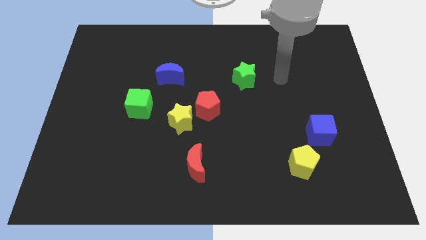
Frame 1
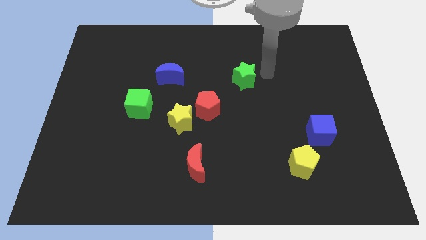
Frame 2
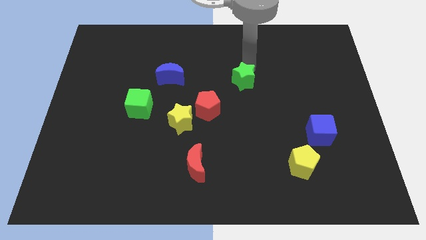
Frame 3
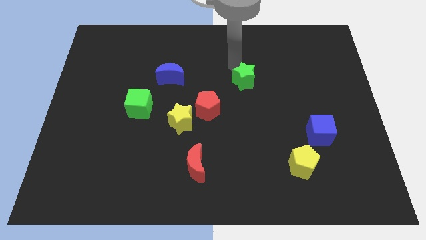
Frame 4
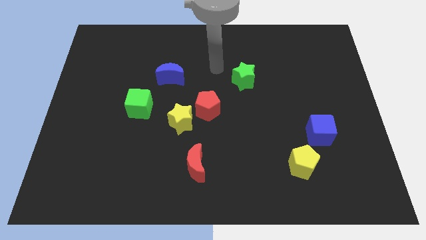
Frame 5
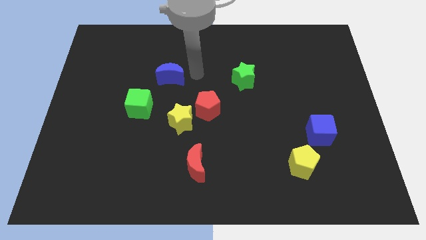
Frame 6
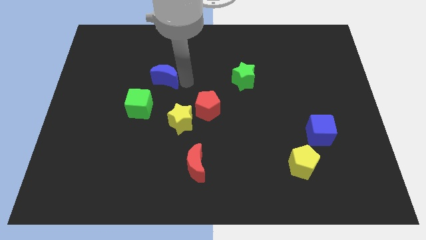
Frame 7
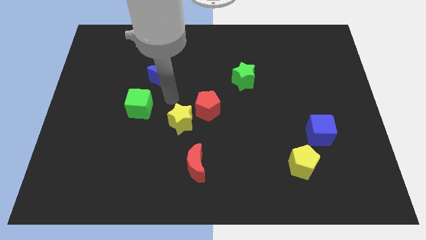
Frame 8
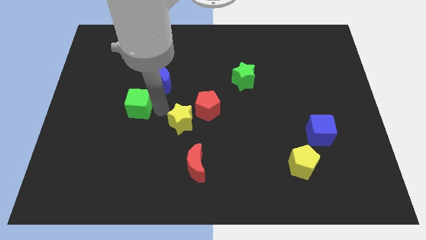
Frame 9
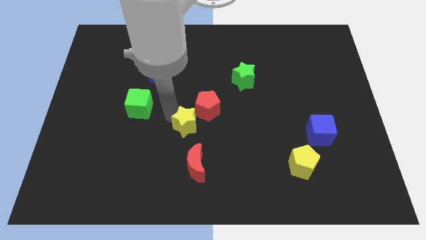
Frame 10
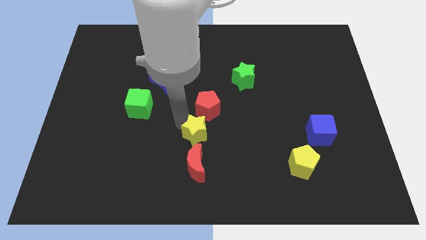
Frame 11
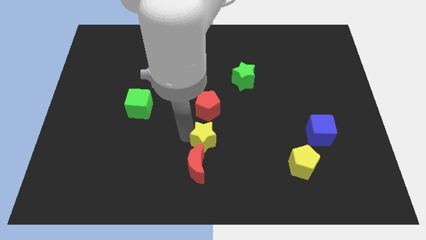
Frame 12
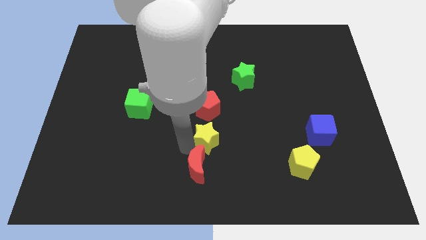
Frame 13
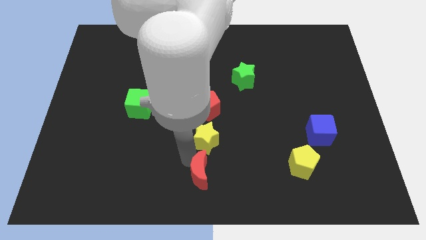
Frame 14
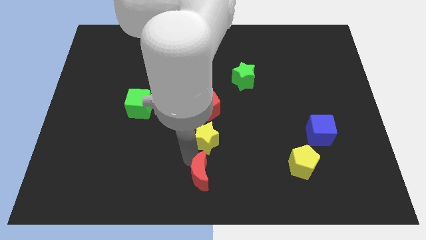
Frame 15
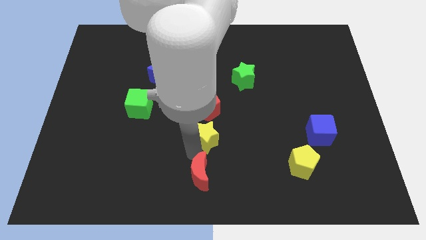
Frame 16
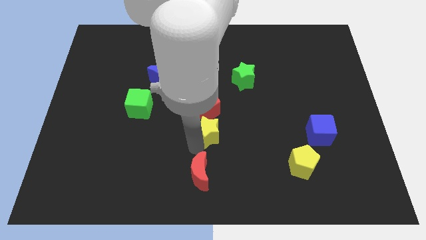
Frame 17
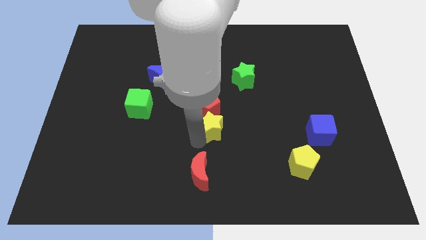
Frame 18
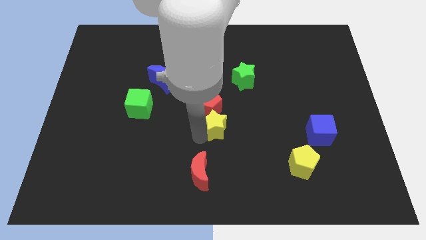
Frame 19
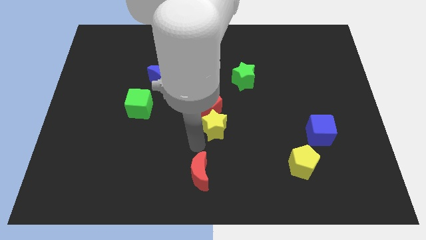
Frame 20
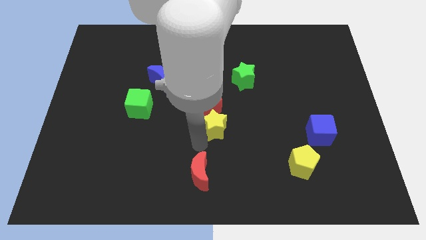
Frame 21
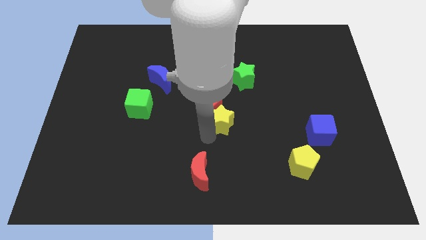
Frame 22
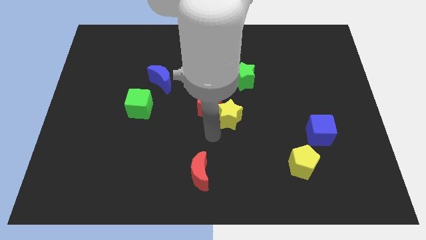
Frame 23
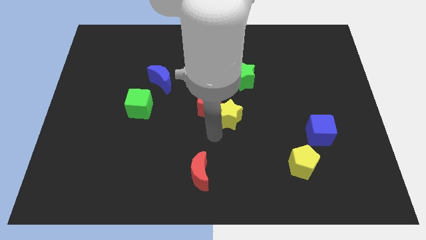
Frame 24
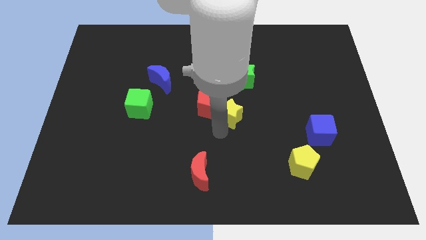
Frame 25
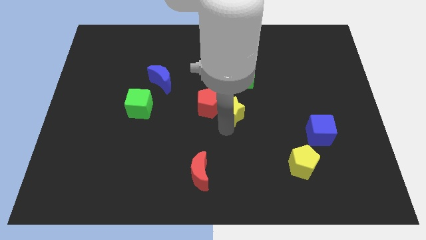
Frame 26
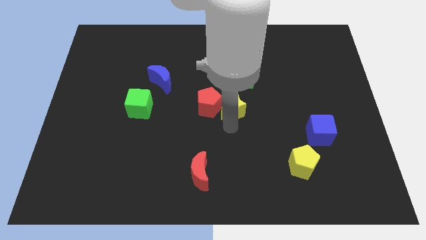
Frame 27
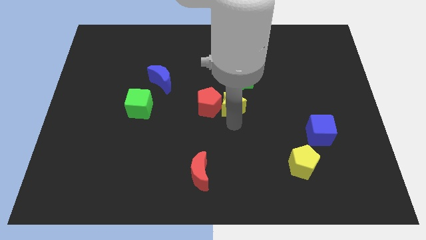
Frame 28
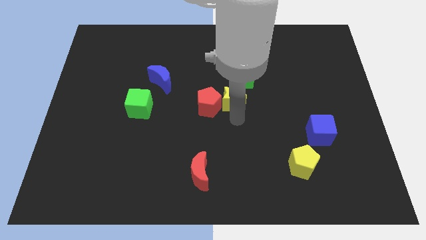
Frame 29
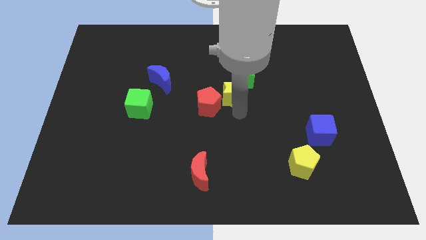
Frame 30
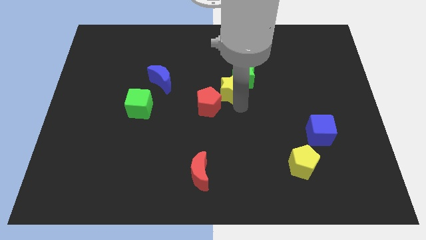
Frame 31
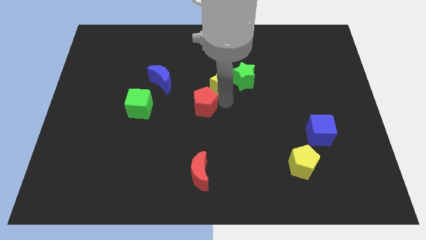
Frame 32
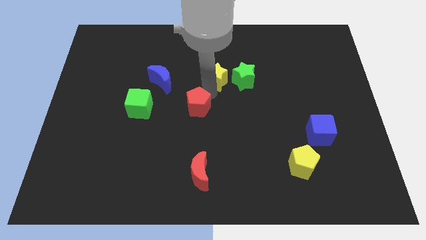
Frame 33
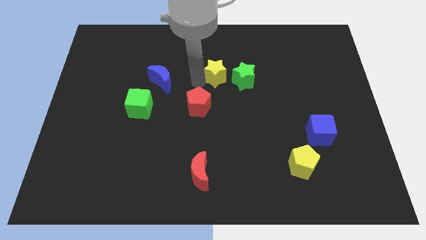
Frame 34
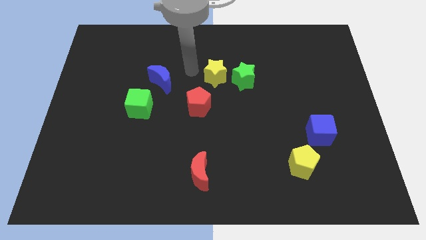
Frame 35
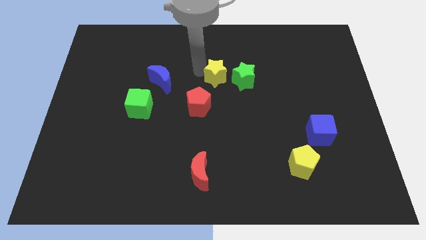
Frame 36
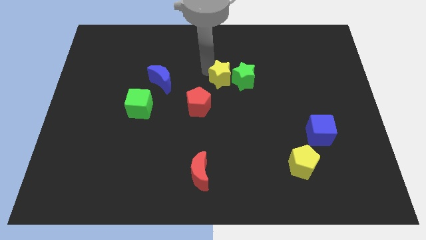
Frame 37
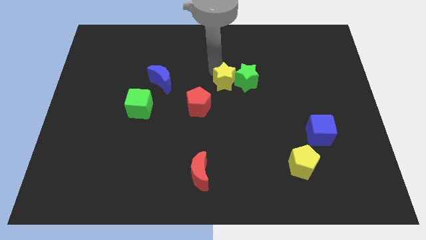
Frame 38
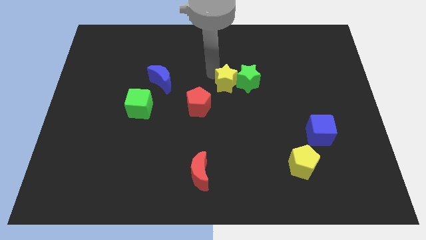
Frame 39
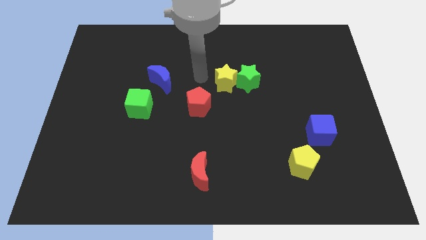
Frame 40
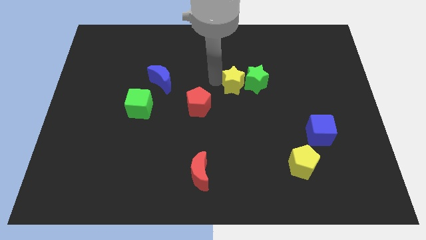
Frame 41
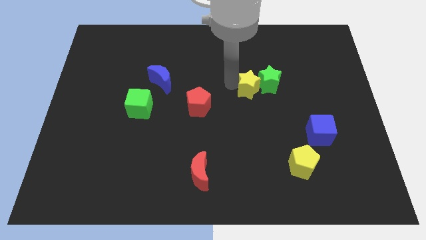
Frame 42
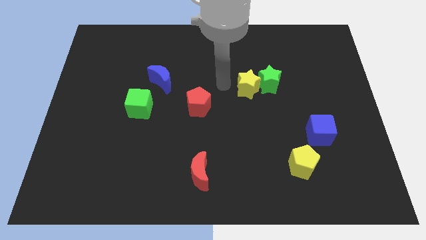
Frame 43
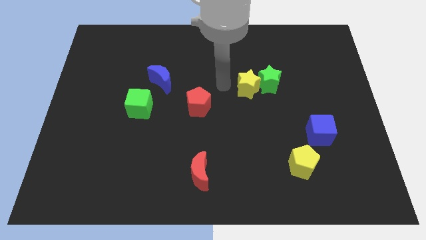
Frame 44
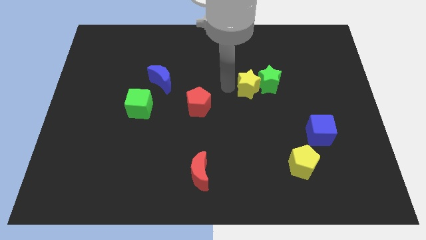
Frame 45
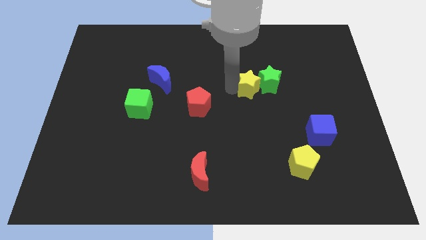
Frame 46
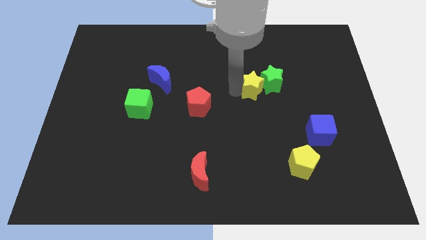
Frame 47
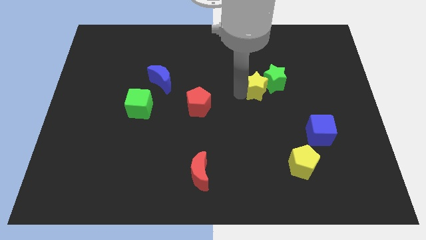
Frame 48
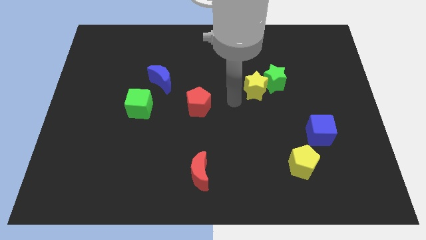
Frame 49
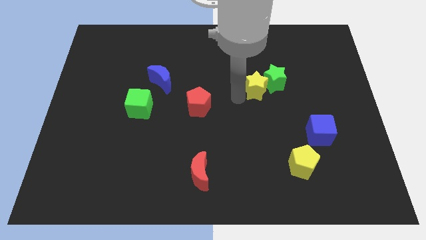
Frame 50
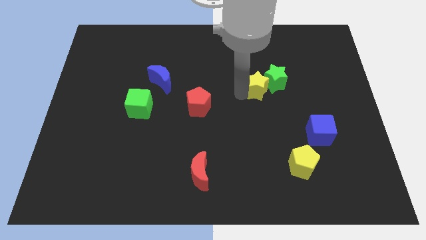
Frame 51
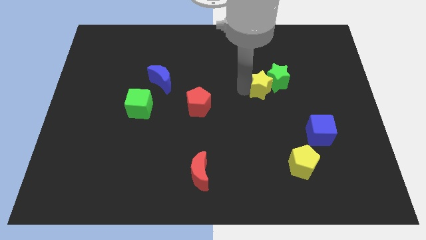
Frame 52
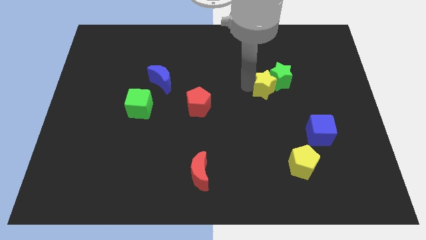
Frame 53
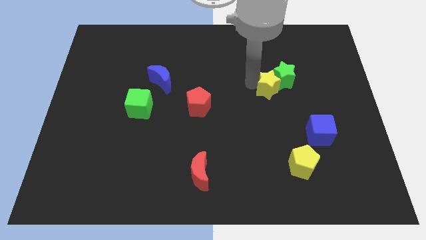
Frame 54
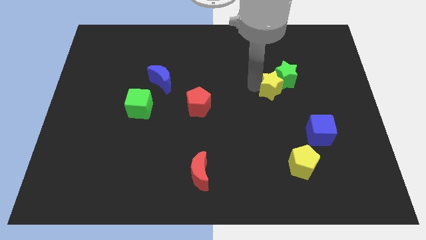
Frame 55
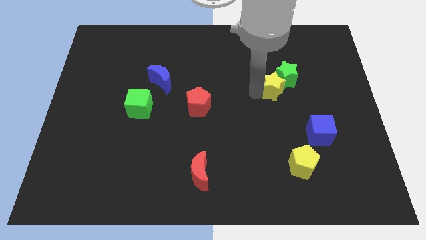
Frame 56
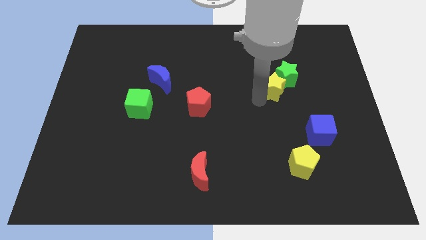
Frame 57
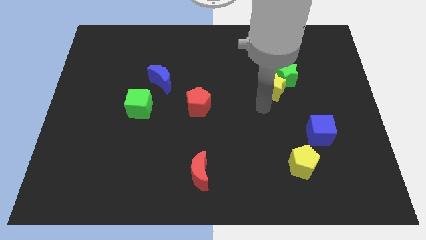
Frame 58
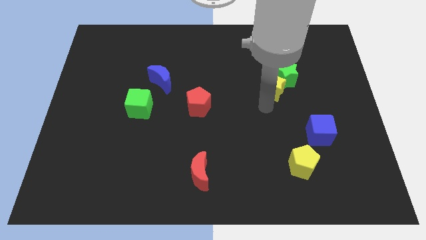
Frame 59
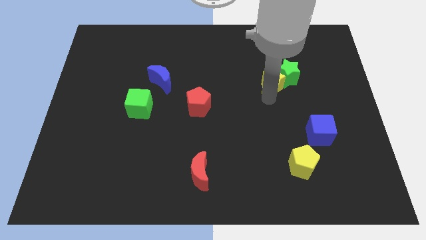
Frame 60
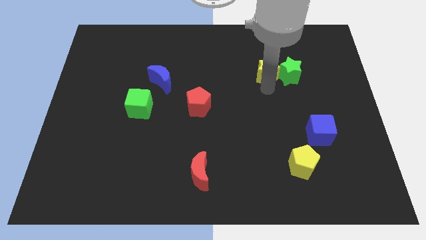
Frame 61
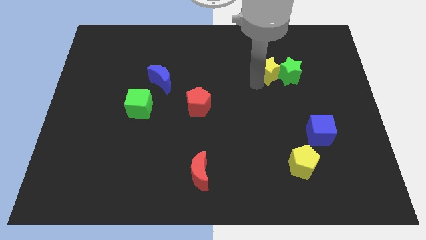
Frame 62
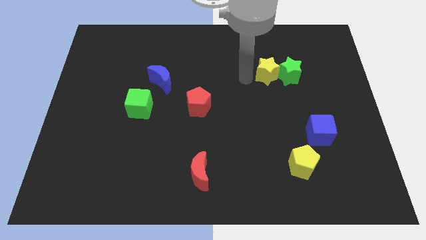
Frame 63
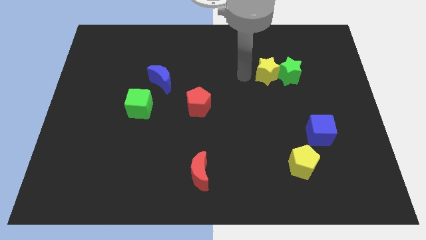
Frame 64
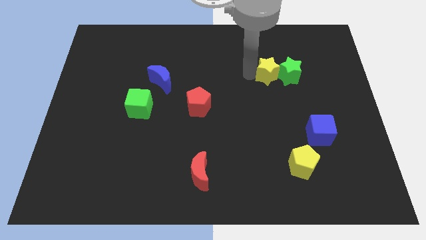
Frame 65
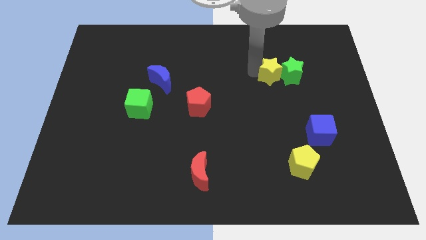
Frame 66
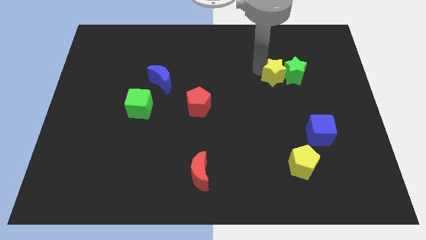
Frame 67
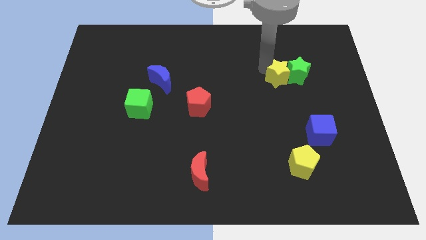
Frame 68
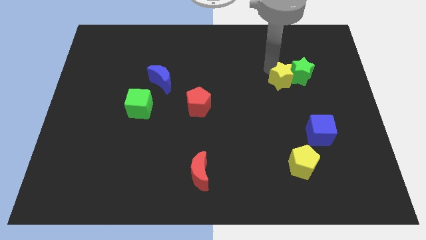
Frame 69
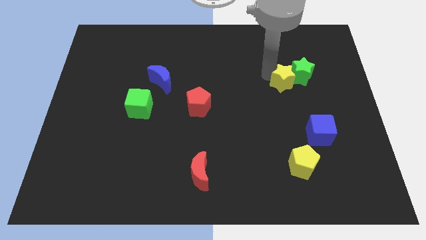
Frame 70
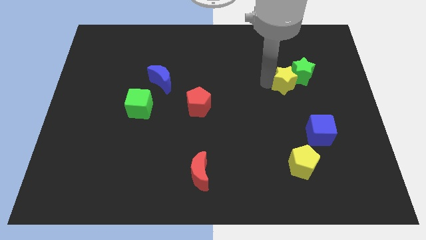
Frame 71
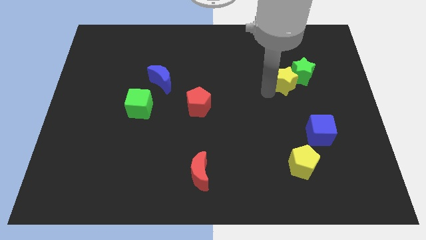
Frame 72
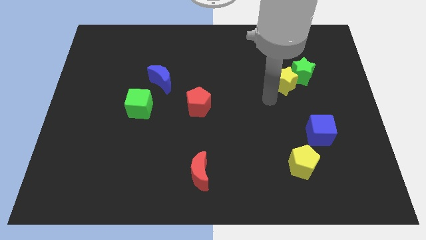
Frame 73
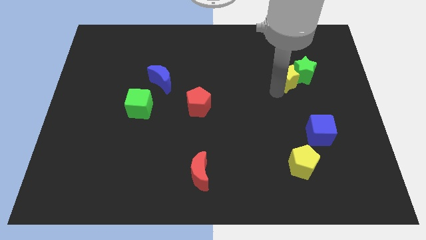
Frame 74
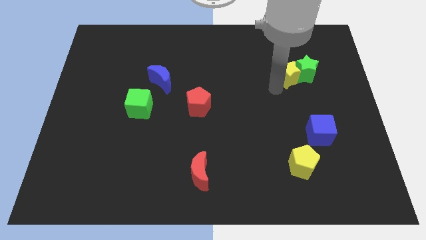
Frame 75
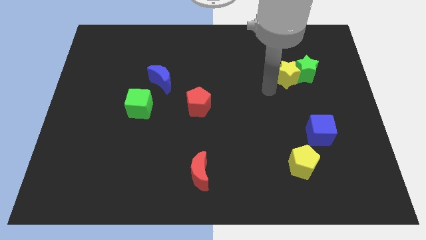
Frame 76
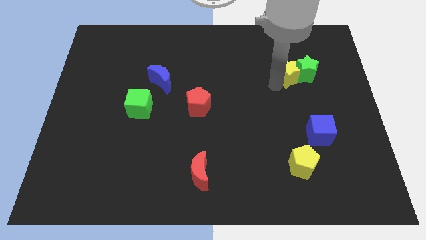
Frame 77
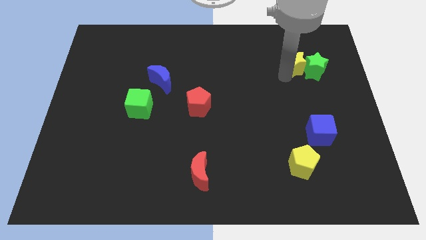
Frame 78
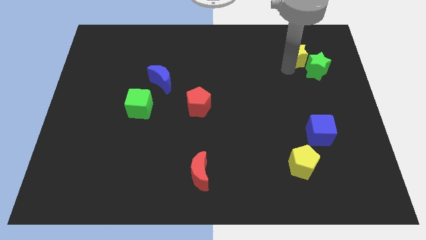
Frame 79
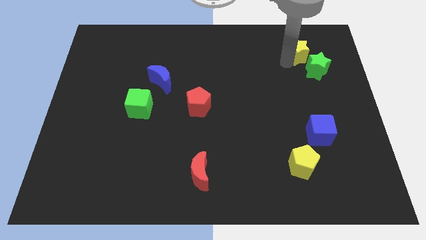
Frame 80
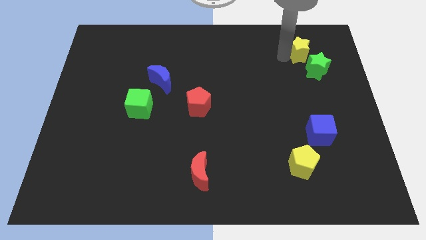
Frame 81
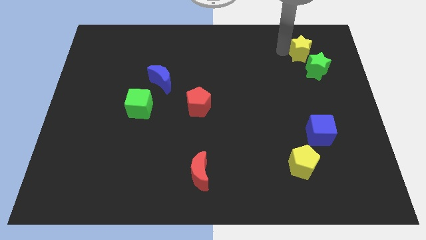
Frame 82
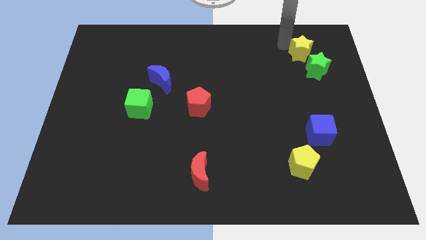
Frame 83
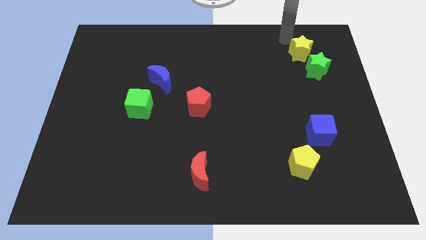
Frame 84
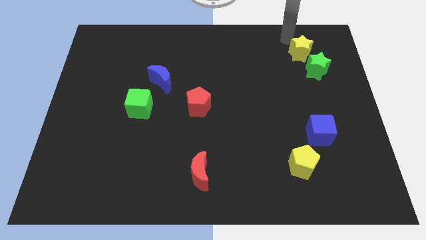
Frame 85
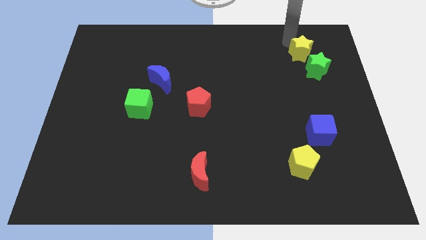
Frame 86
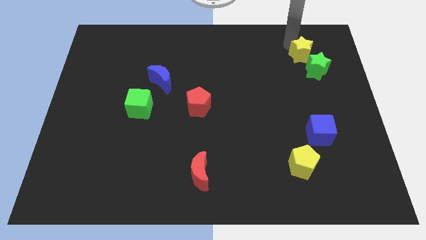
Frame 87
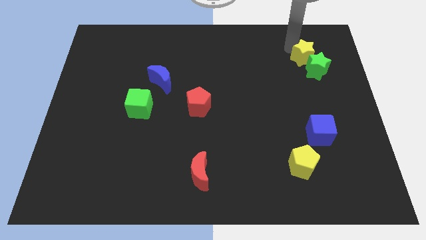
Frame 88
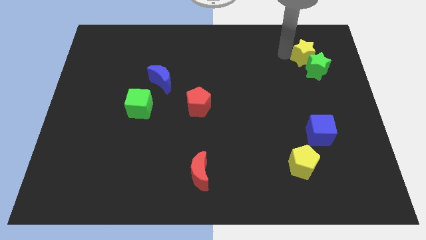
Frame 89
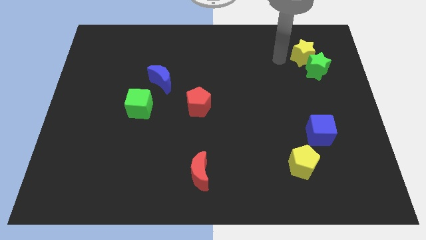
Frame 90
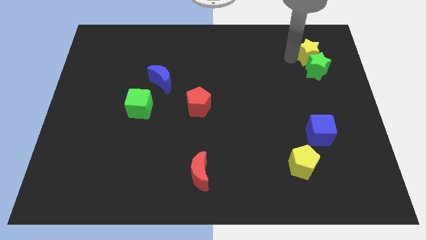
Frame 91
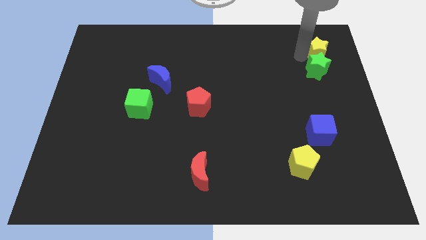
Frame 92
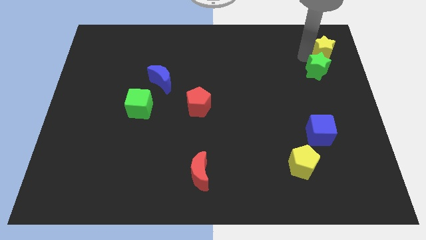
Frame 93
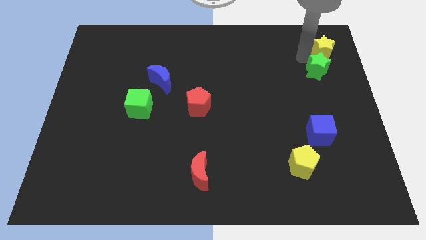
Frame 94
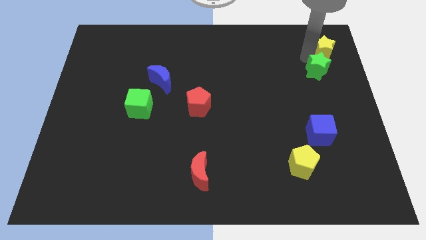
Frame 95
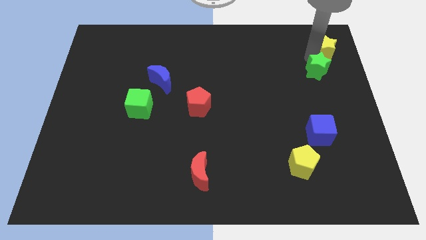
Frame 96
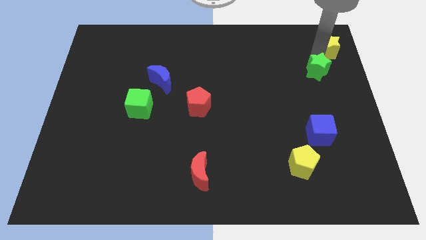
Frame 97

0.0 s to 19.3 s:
put the yellow star to the top right
